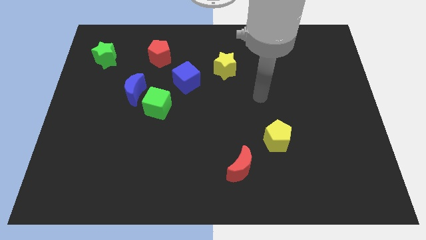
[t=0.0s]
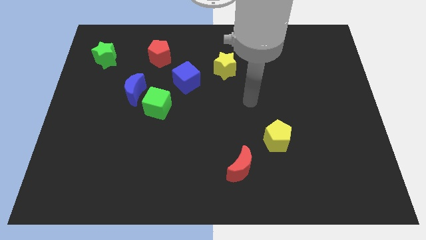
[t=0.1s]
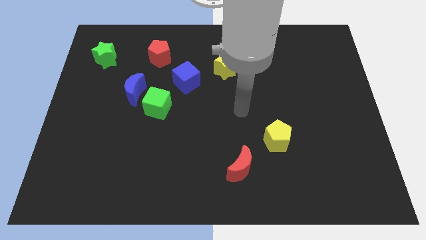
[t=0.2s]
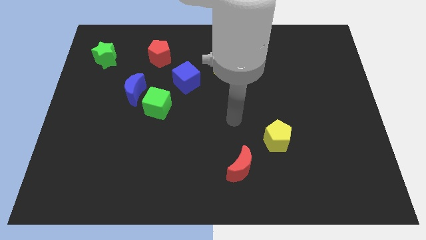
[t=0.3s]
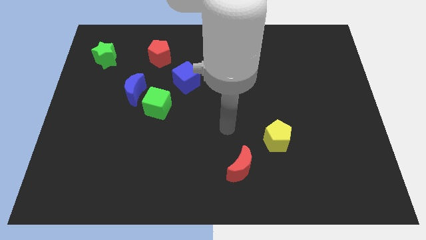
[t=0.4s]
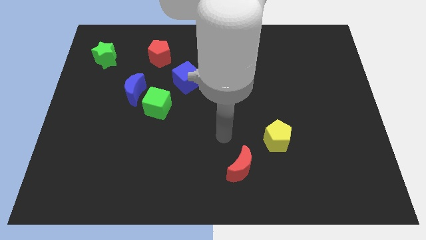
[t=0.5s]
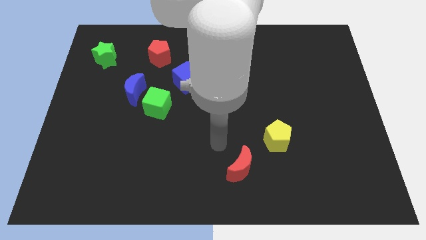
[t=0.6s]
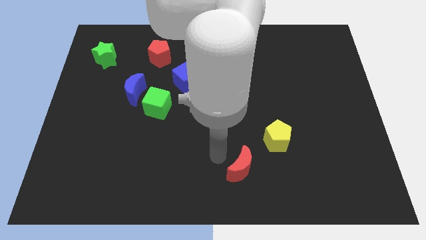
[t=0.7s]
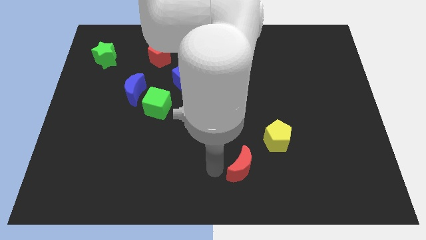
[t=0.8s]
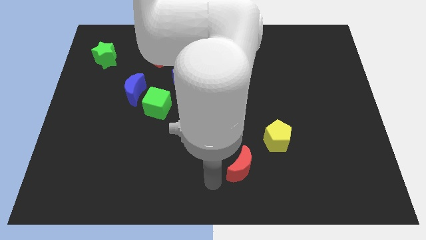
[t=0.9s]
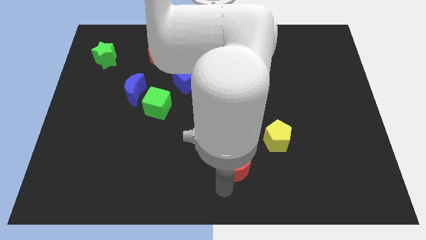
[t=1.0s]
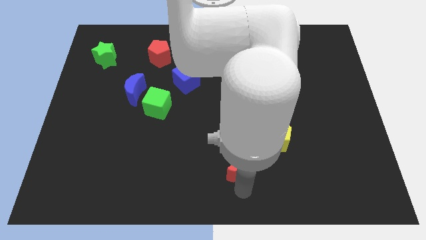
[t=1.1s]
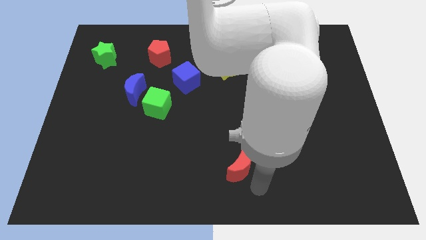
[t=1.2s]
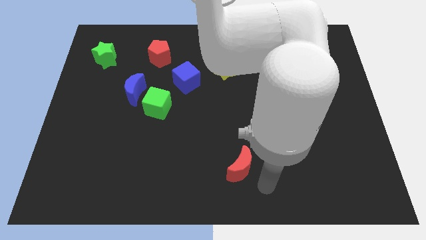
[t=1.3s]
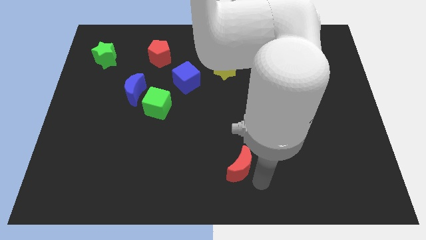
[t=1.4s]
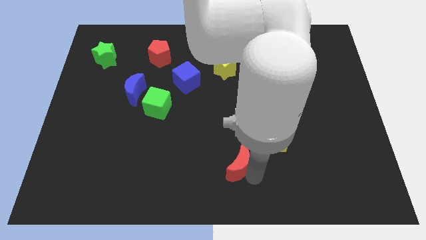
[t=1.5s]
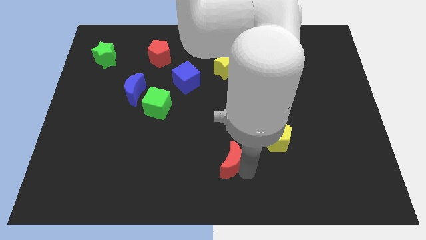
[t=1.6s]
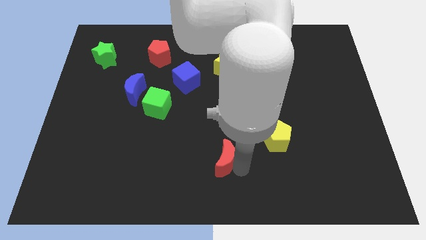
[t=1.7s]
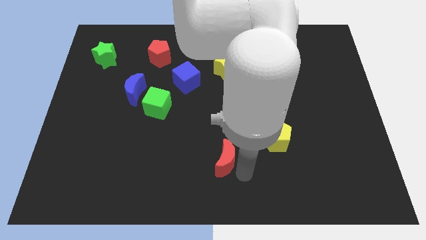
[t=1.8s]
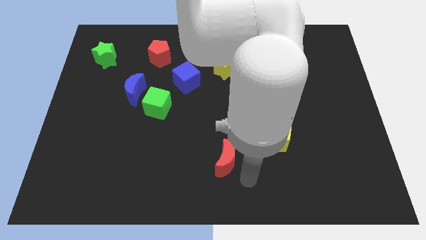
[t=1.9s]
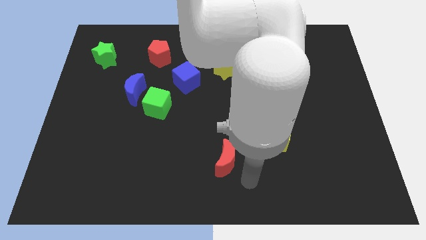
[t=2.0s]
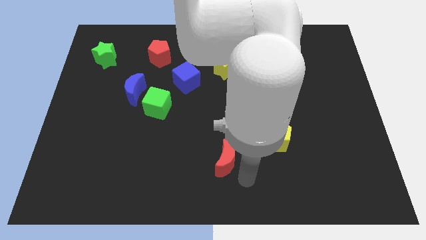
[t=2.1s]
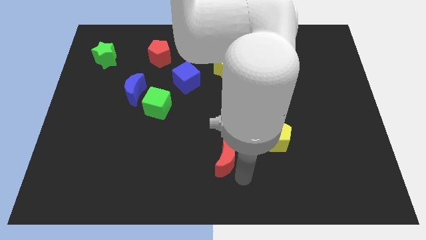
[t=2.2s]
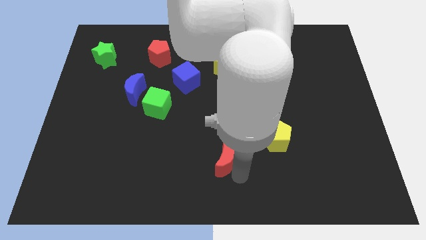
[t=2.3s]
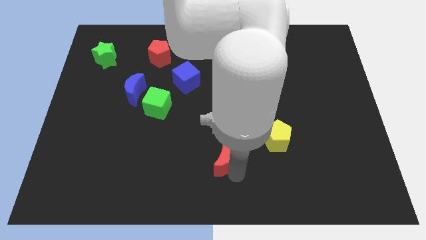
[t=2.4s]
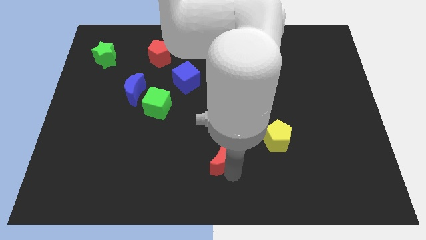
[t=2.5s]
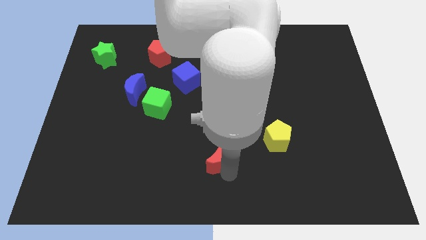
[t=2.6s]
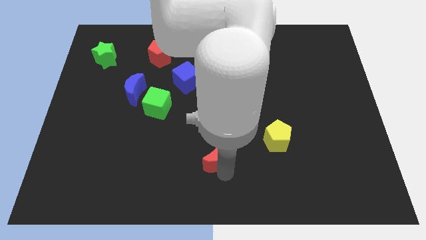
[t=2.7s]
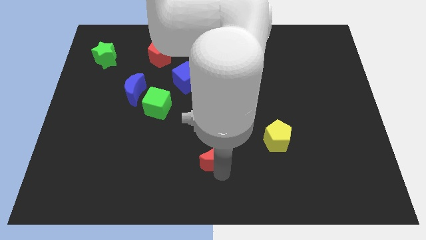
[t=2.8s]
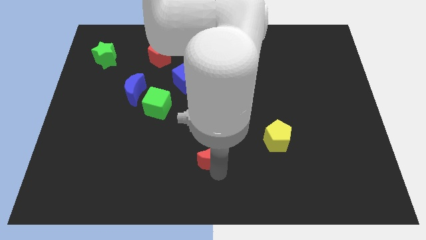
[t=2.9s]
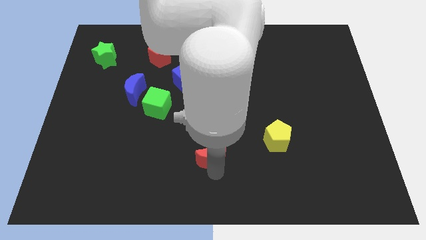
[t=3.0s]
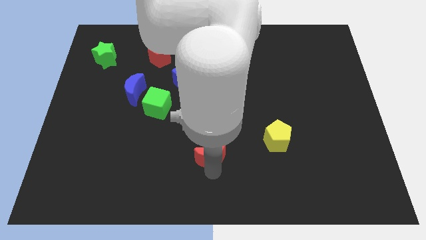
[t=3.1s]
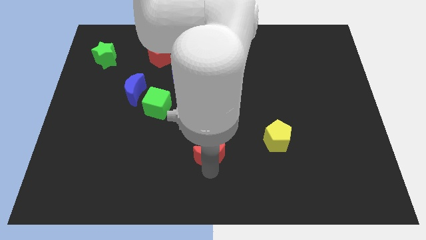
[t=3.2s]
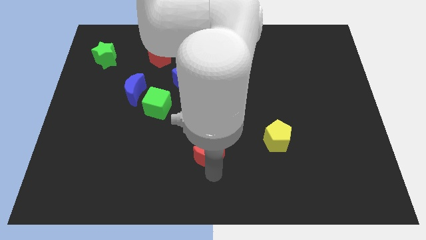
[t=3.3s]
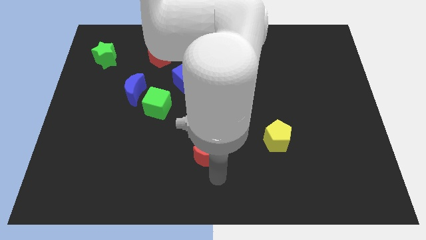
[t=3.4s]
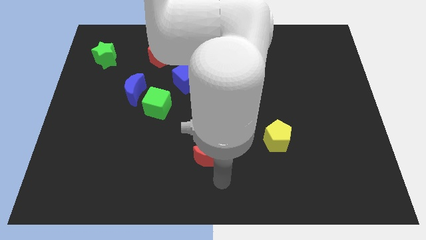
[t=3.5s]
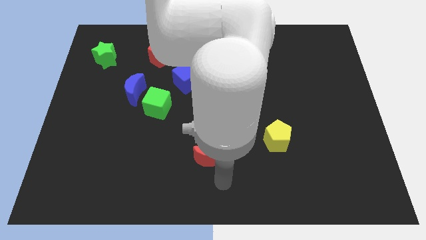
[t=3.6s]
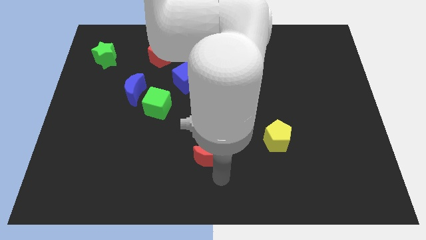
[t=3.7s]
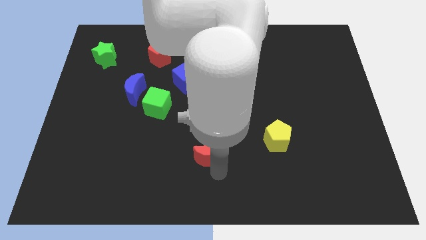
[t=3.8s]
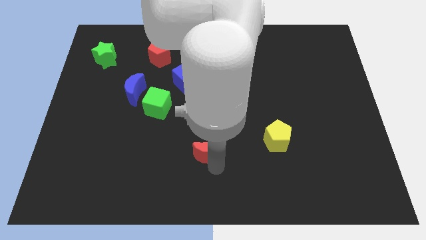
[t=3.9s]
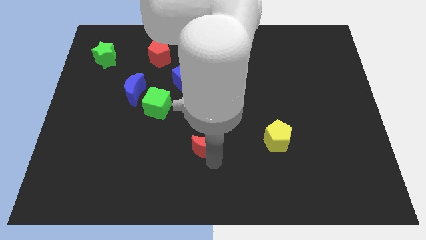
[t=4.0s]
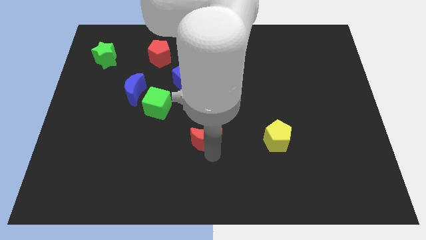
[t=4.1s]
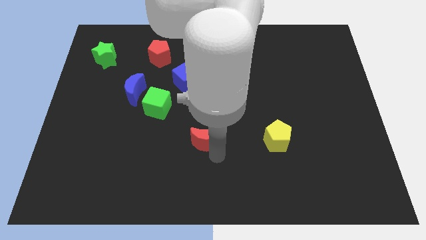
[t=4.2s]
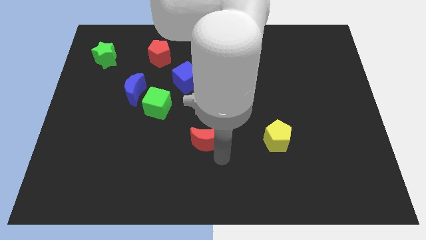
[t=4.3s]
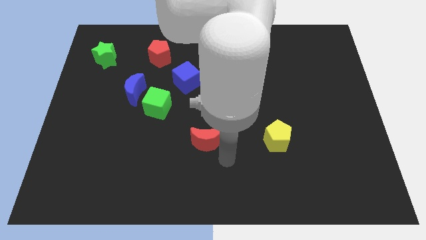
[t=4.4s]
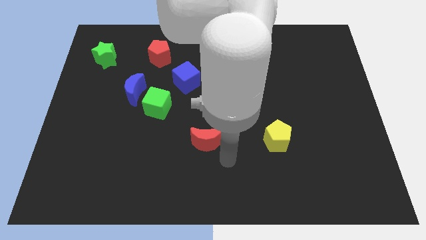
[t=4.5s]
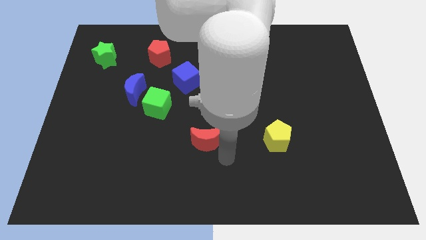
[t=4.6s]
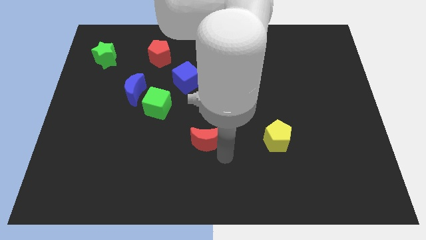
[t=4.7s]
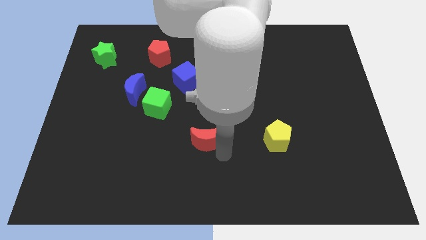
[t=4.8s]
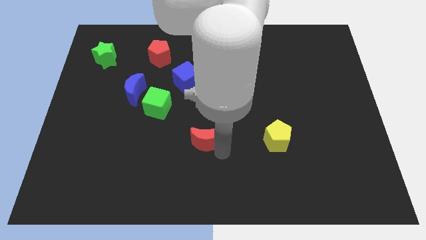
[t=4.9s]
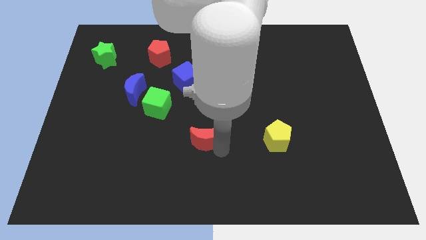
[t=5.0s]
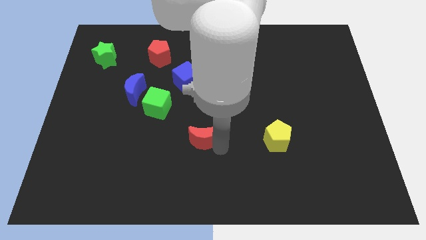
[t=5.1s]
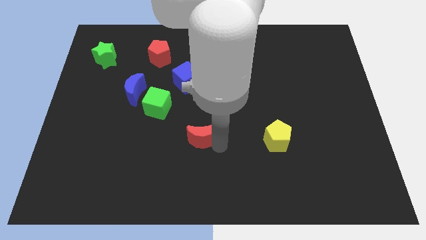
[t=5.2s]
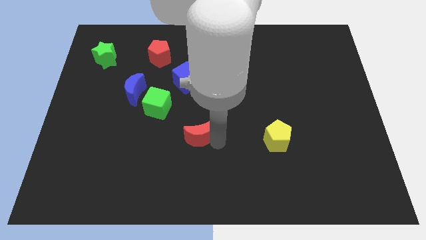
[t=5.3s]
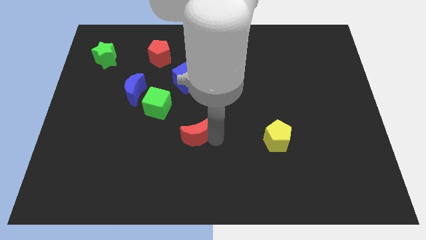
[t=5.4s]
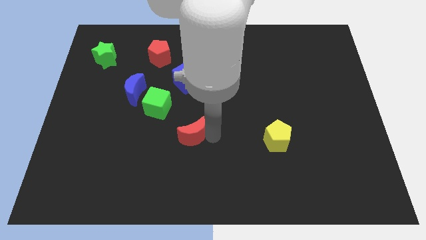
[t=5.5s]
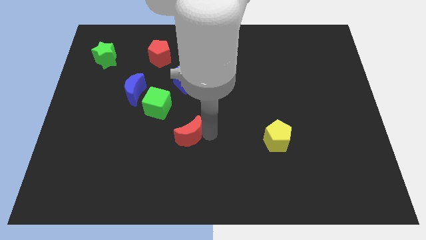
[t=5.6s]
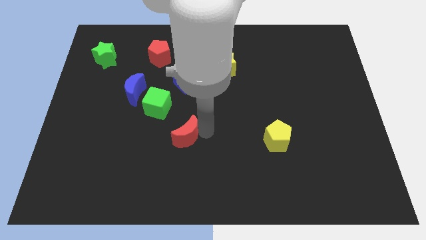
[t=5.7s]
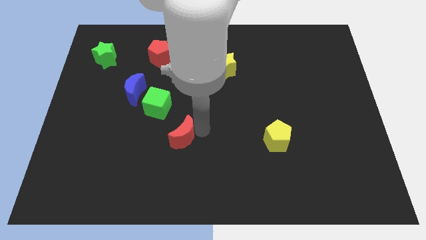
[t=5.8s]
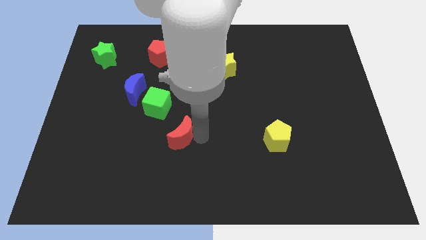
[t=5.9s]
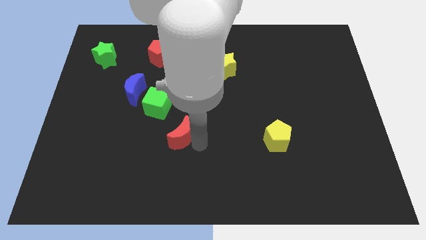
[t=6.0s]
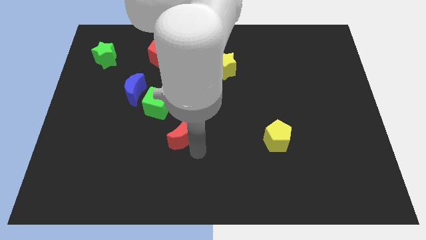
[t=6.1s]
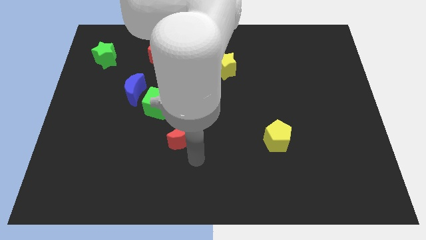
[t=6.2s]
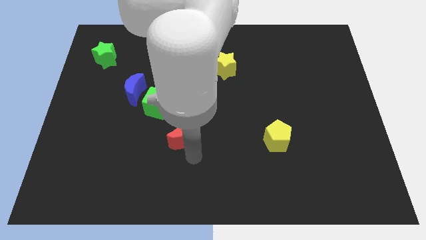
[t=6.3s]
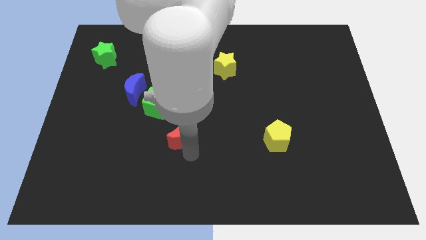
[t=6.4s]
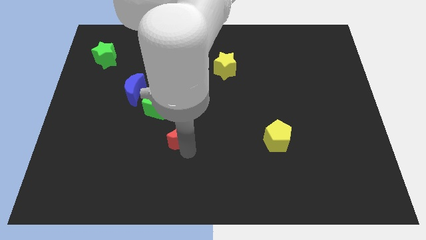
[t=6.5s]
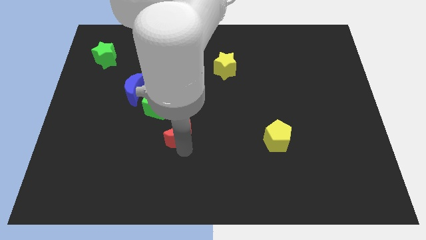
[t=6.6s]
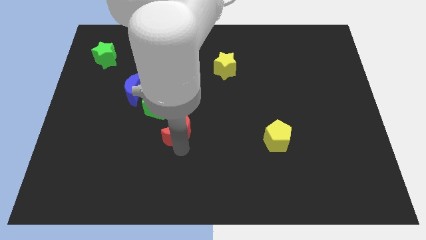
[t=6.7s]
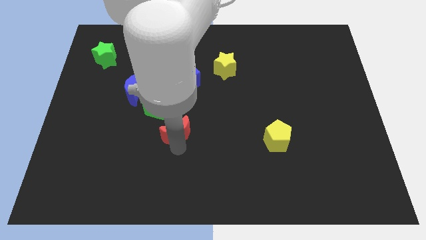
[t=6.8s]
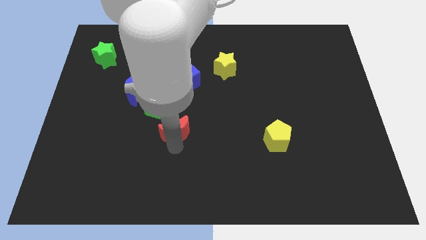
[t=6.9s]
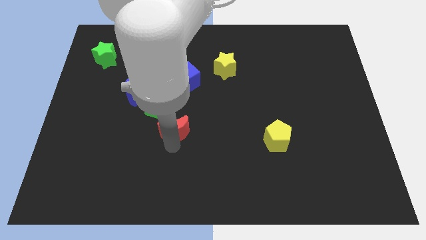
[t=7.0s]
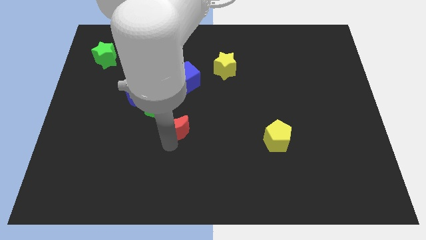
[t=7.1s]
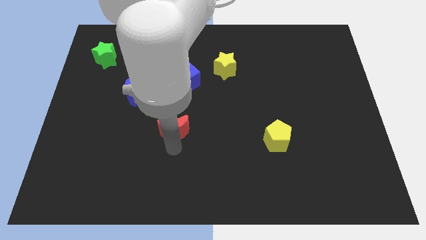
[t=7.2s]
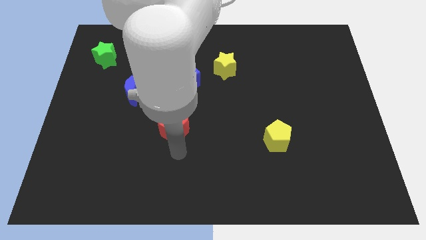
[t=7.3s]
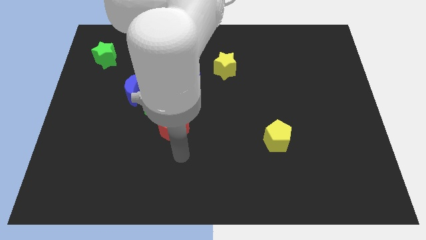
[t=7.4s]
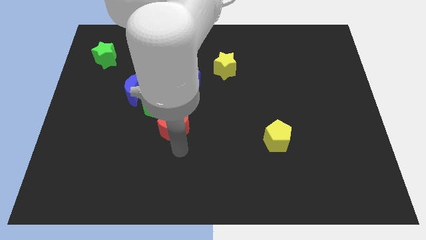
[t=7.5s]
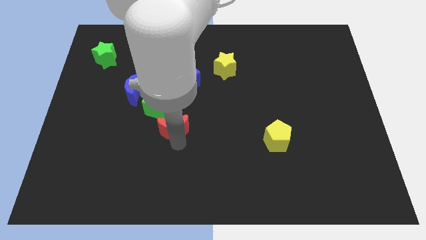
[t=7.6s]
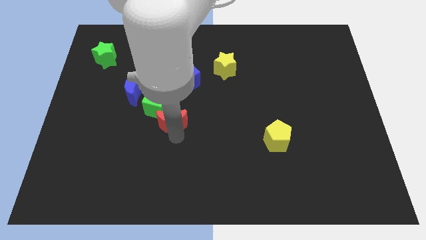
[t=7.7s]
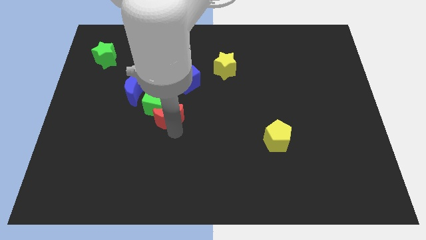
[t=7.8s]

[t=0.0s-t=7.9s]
move the red moon close to the green cube

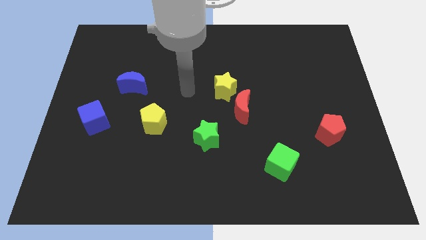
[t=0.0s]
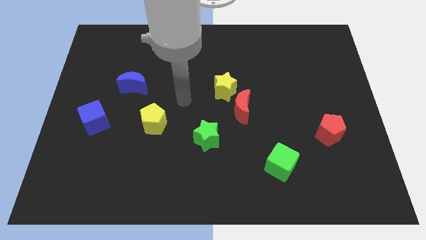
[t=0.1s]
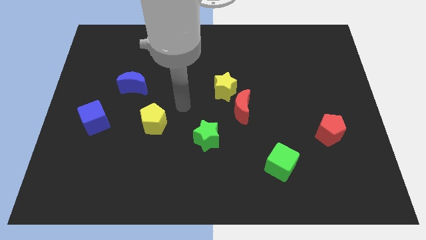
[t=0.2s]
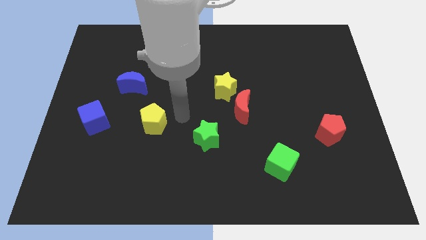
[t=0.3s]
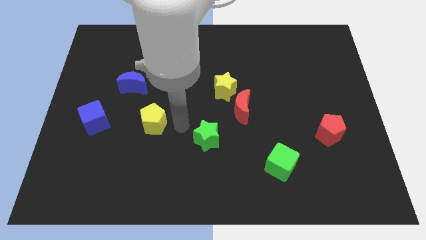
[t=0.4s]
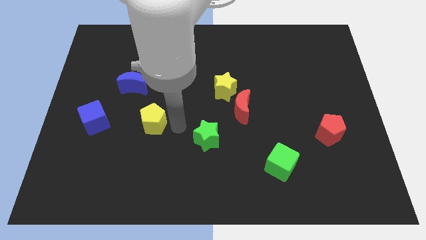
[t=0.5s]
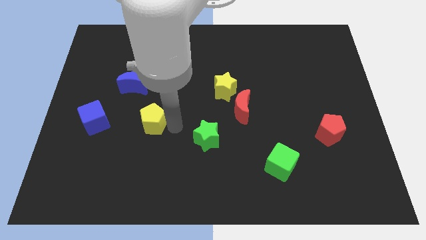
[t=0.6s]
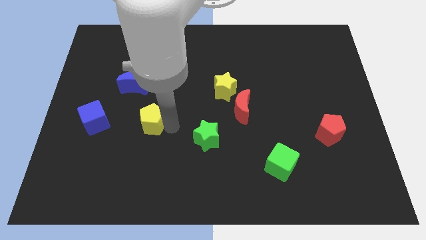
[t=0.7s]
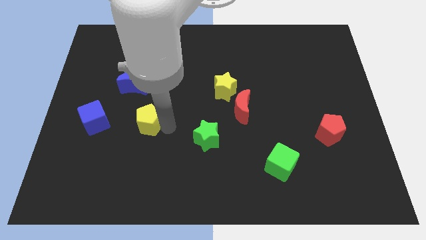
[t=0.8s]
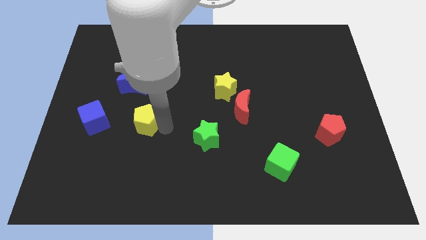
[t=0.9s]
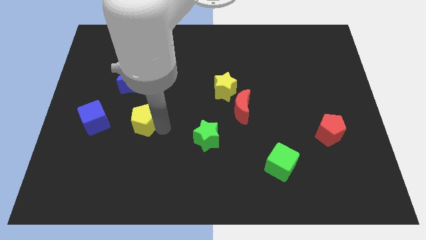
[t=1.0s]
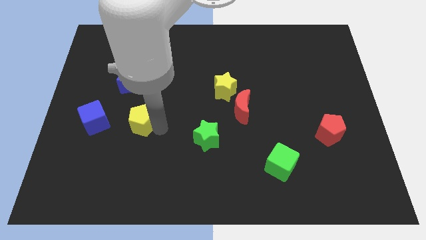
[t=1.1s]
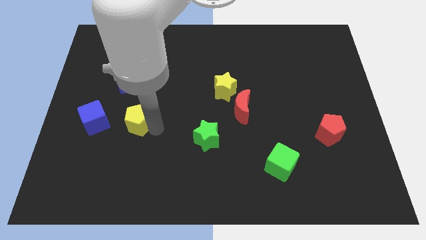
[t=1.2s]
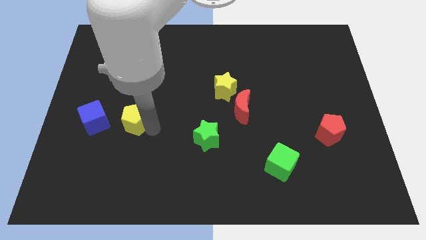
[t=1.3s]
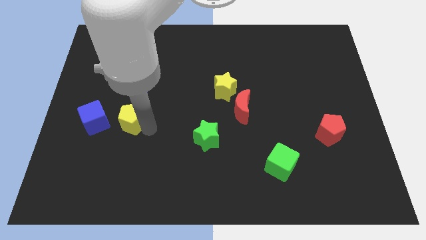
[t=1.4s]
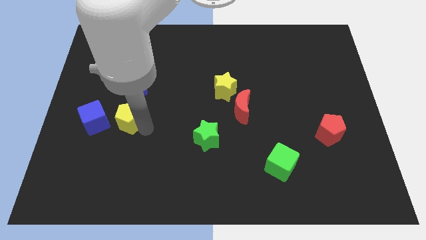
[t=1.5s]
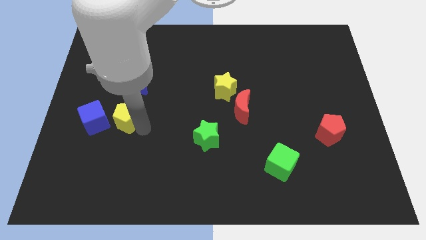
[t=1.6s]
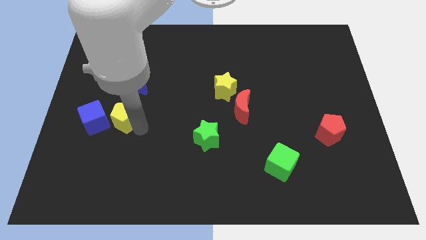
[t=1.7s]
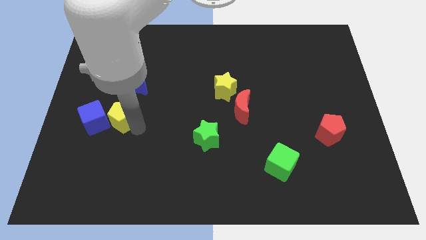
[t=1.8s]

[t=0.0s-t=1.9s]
put the yellow pentagon close to the blue cube
